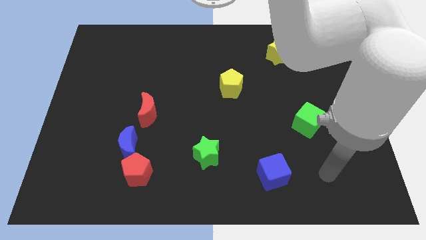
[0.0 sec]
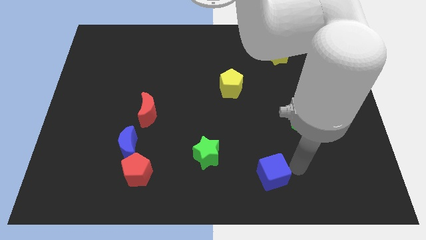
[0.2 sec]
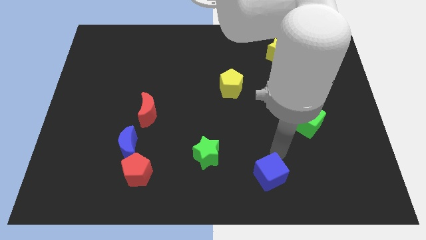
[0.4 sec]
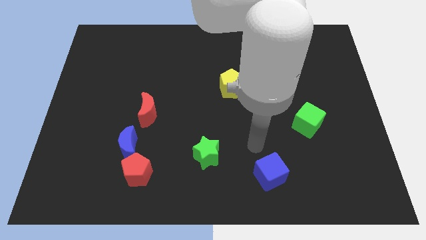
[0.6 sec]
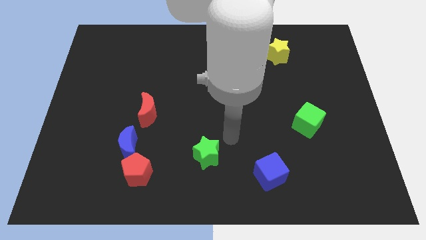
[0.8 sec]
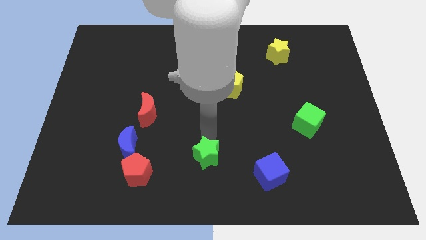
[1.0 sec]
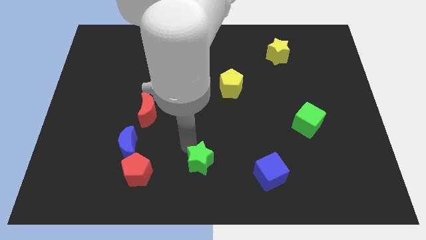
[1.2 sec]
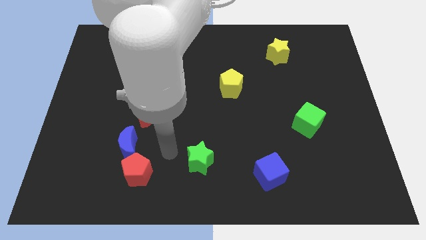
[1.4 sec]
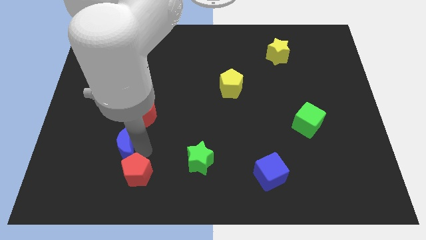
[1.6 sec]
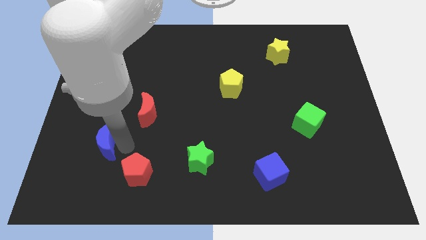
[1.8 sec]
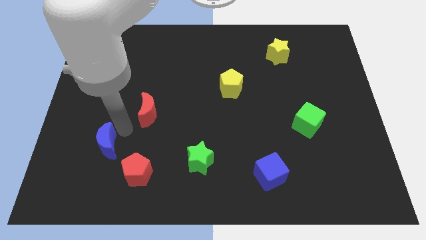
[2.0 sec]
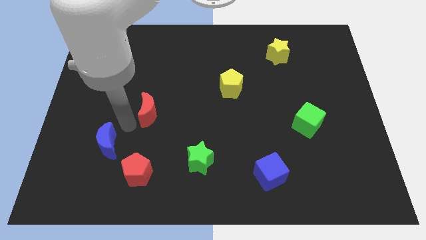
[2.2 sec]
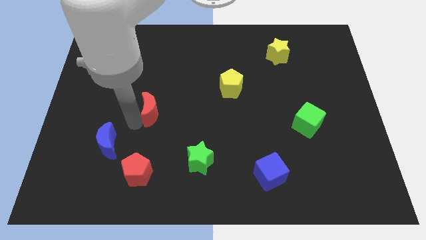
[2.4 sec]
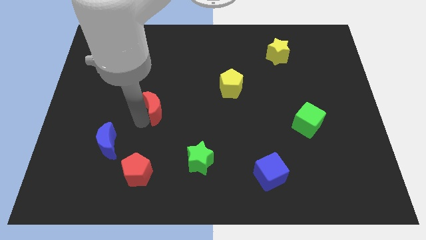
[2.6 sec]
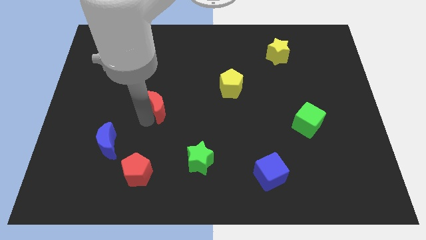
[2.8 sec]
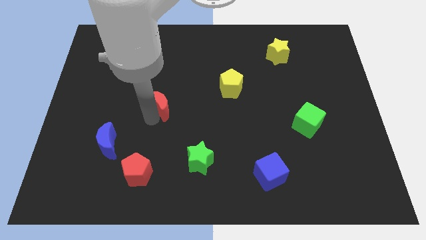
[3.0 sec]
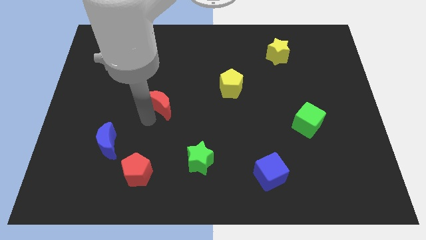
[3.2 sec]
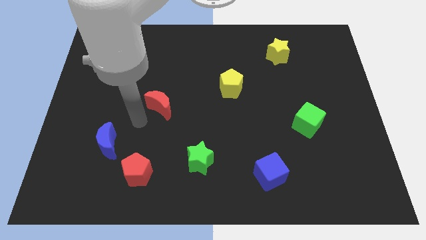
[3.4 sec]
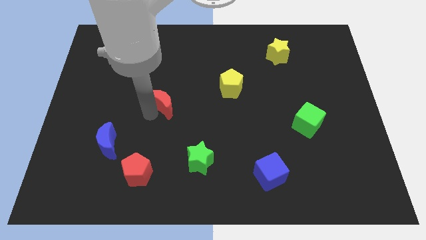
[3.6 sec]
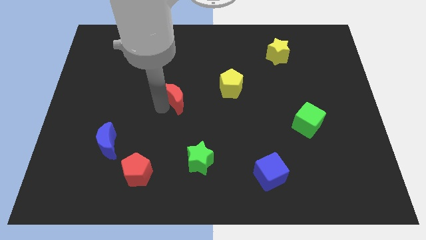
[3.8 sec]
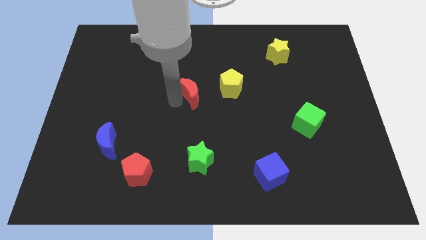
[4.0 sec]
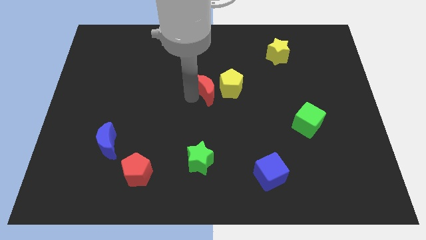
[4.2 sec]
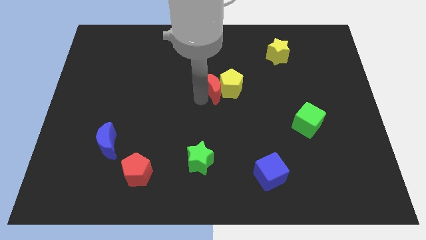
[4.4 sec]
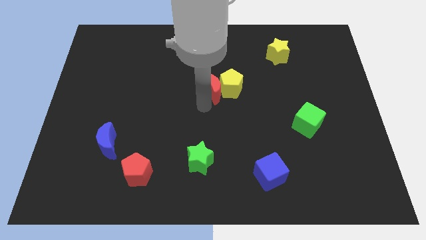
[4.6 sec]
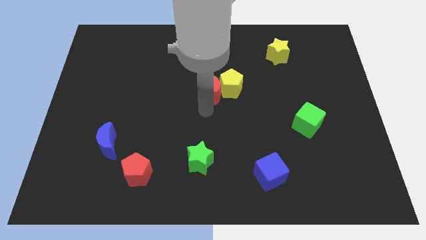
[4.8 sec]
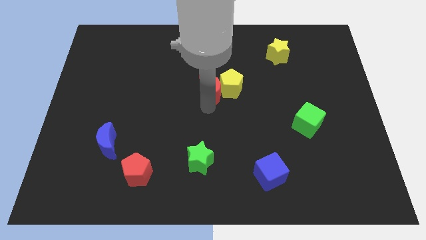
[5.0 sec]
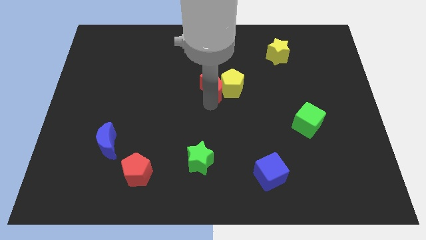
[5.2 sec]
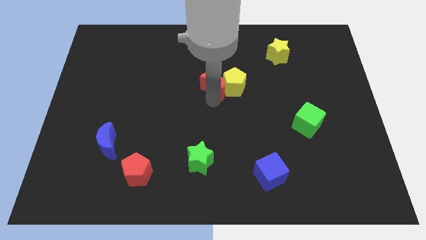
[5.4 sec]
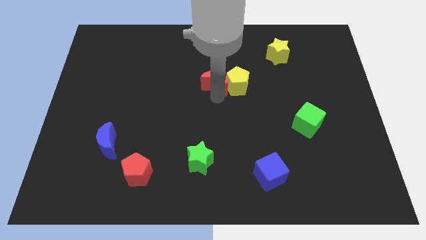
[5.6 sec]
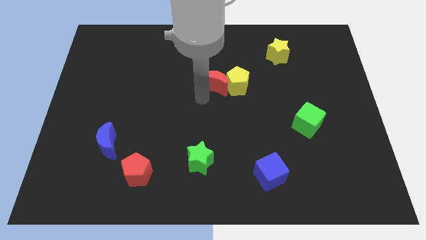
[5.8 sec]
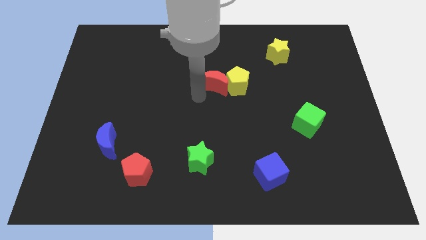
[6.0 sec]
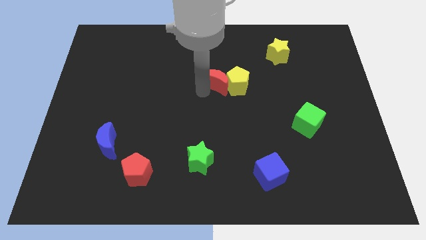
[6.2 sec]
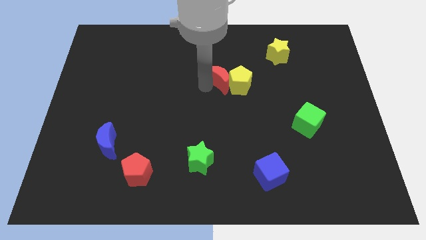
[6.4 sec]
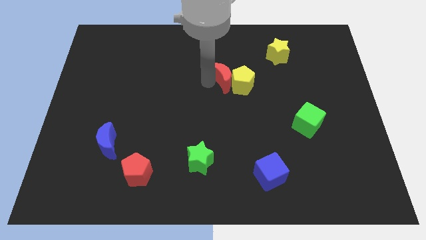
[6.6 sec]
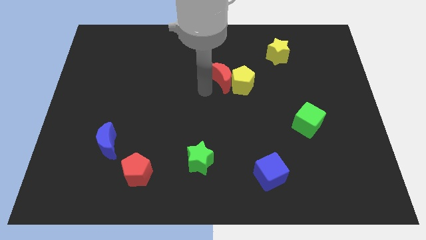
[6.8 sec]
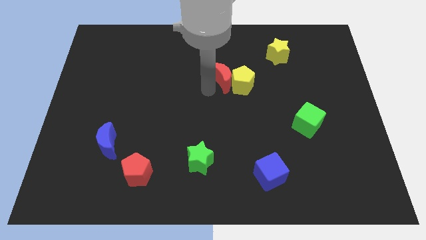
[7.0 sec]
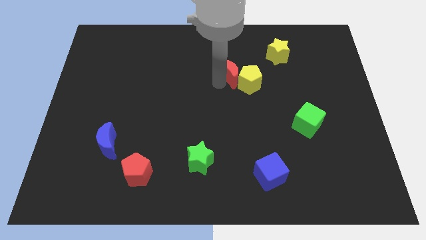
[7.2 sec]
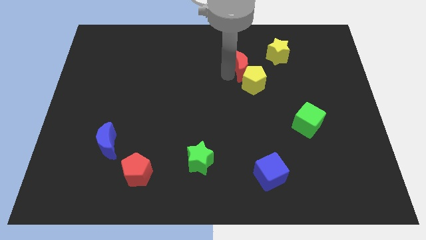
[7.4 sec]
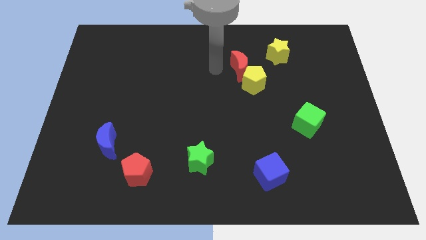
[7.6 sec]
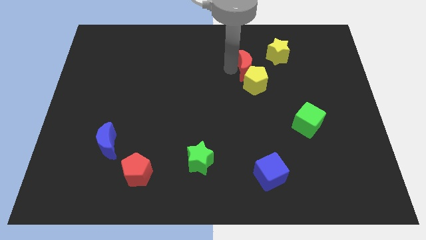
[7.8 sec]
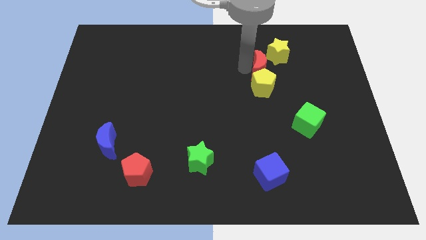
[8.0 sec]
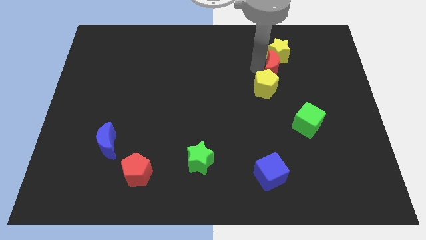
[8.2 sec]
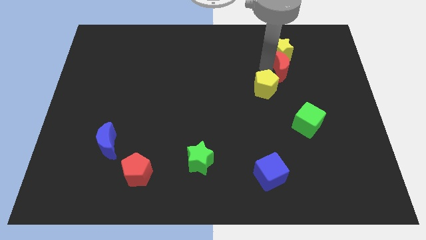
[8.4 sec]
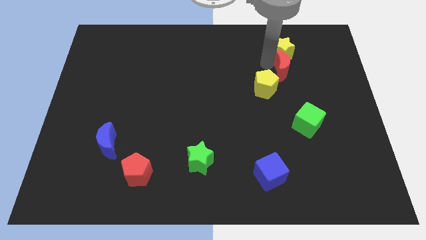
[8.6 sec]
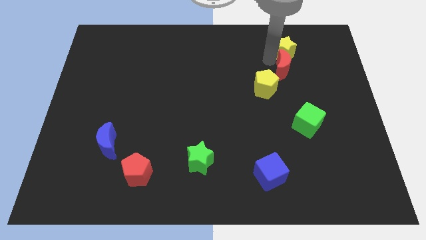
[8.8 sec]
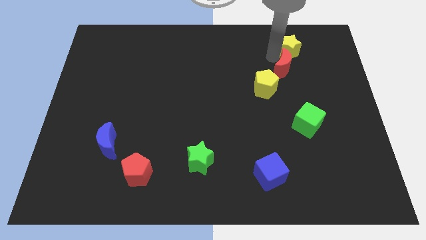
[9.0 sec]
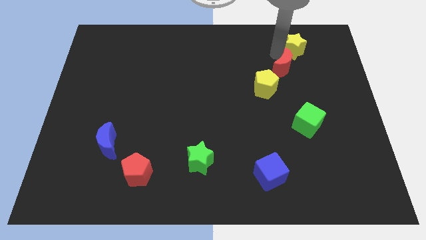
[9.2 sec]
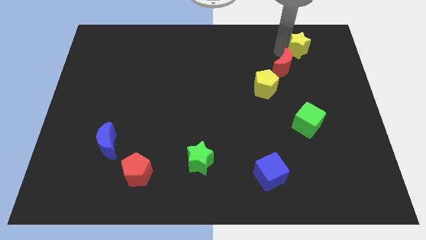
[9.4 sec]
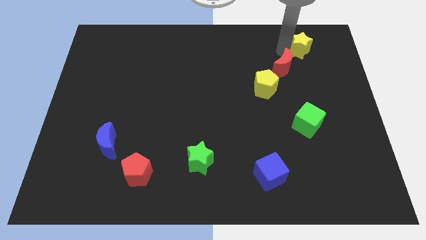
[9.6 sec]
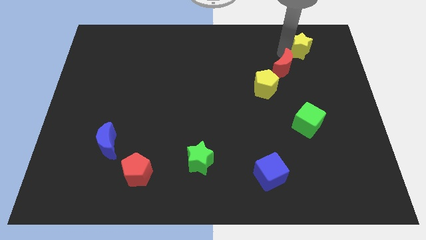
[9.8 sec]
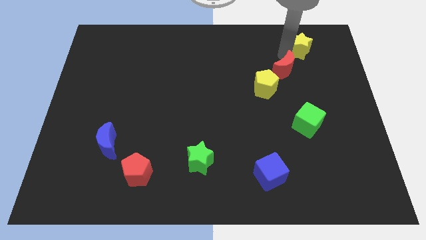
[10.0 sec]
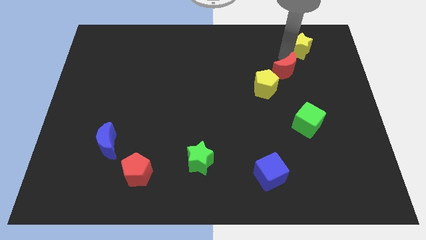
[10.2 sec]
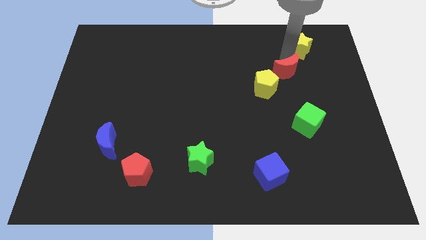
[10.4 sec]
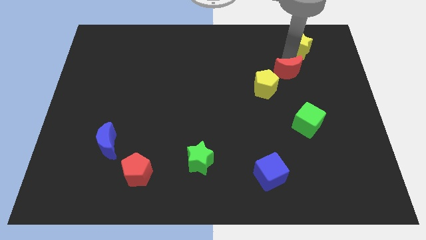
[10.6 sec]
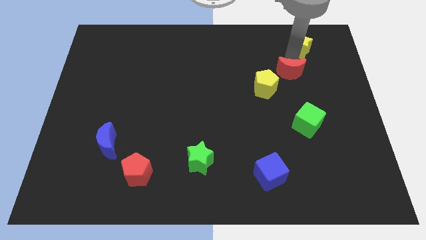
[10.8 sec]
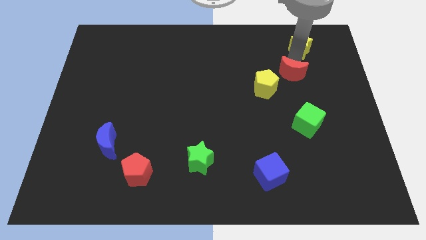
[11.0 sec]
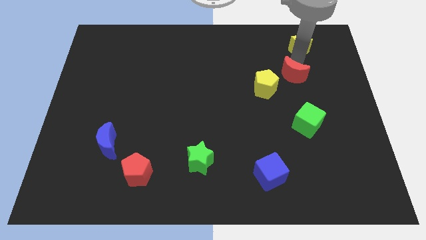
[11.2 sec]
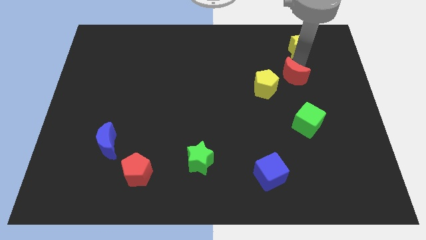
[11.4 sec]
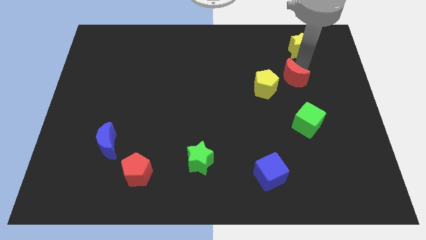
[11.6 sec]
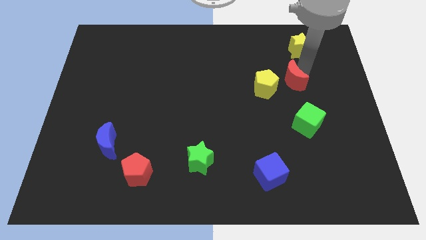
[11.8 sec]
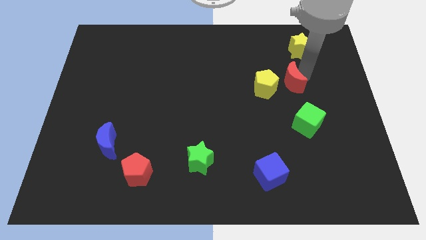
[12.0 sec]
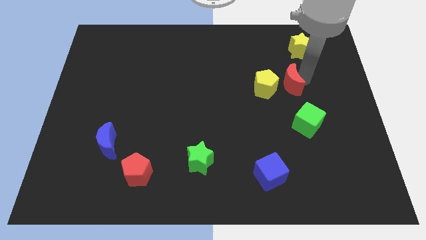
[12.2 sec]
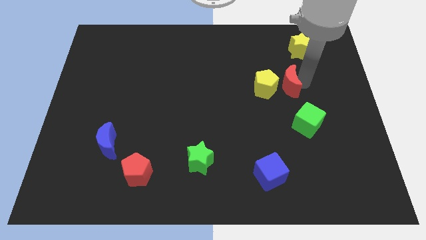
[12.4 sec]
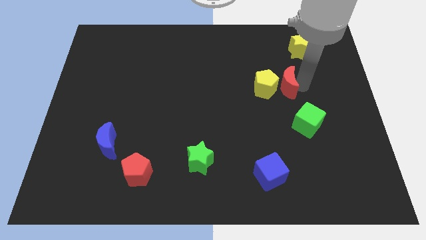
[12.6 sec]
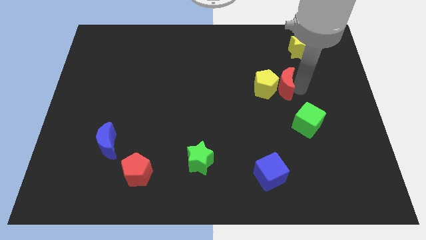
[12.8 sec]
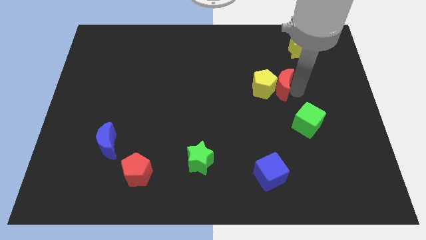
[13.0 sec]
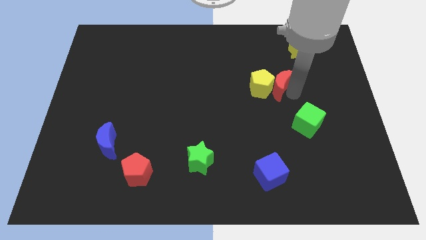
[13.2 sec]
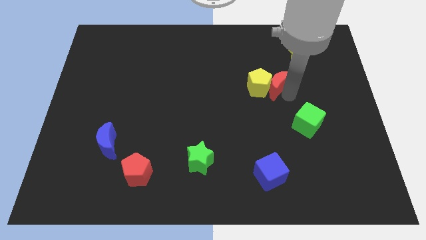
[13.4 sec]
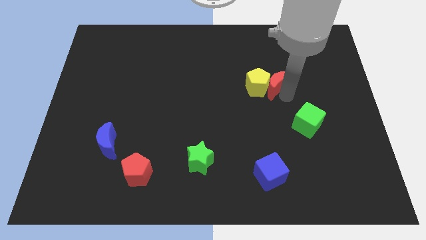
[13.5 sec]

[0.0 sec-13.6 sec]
put the red moon diagonally up and to the right of the yellow pentagon
